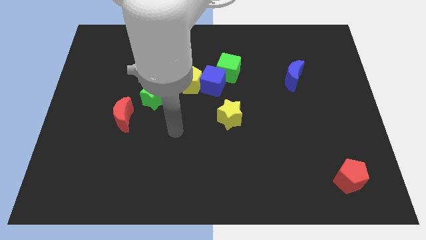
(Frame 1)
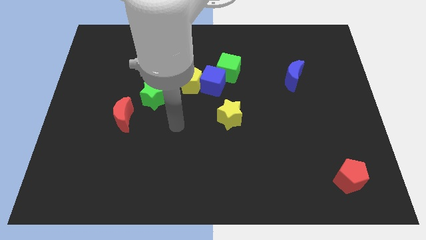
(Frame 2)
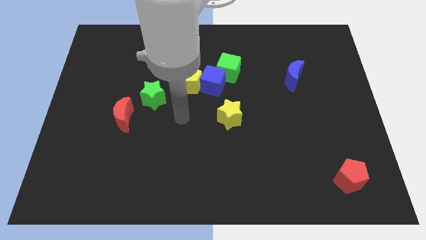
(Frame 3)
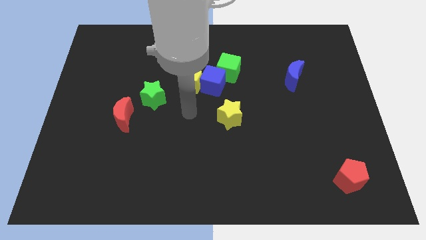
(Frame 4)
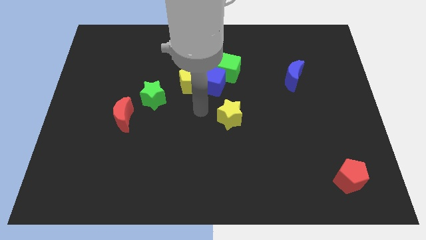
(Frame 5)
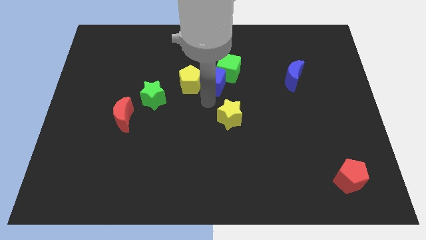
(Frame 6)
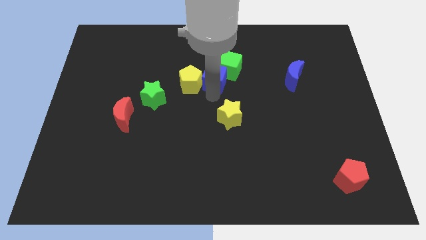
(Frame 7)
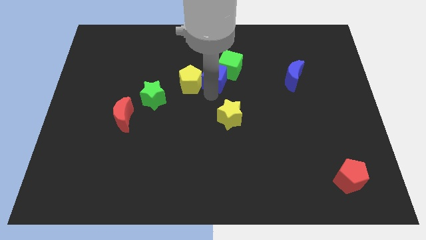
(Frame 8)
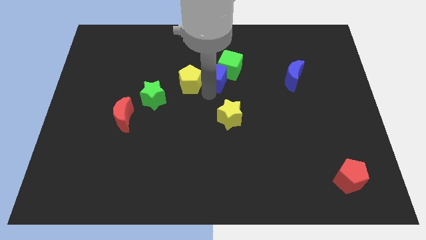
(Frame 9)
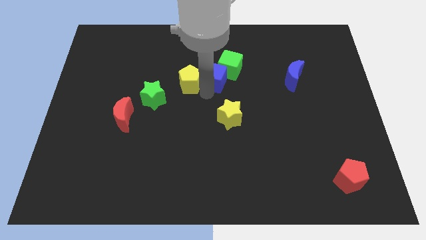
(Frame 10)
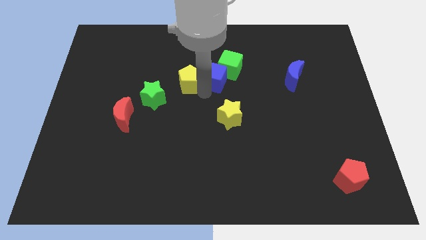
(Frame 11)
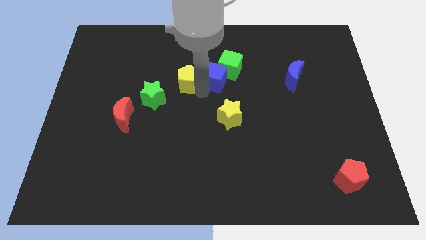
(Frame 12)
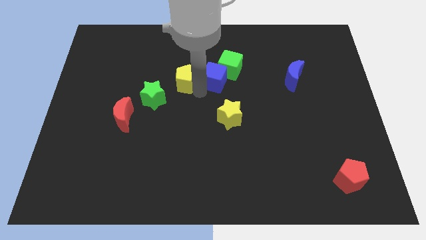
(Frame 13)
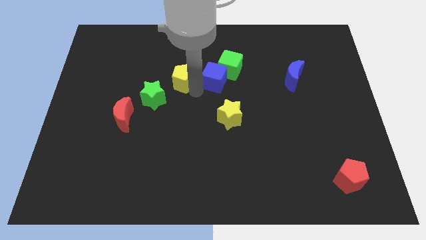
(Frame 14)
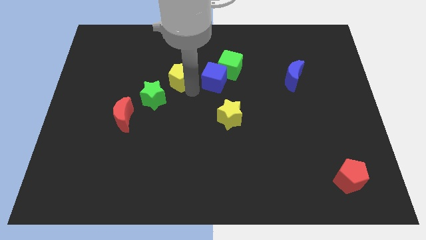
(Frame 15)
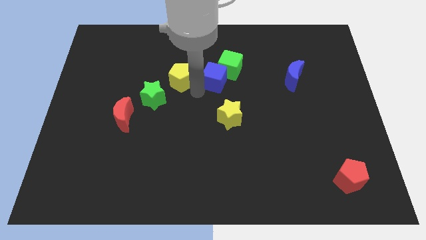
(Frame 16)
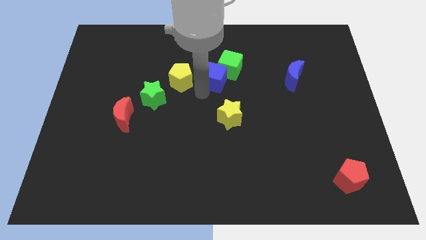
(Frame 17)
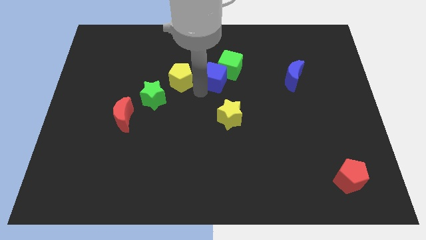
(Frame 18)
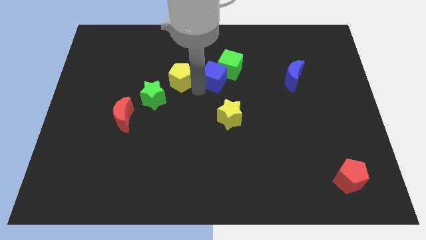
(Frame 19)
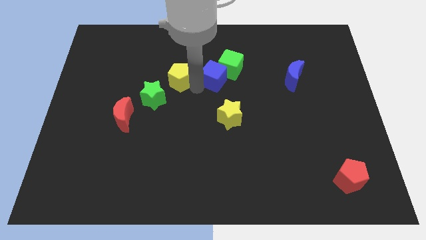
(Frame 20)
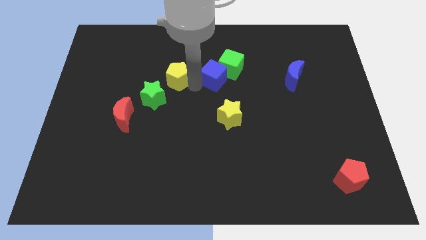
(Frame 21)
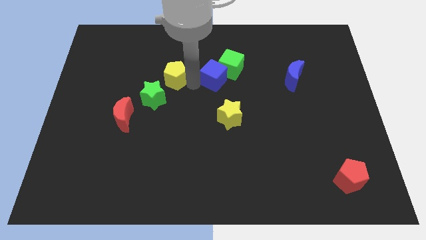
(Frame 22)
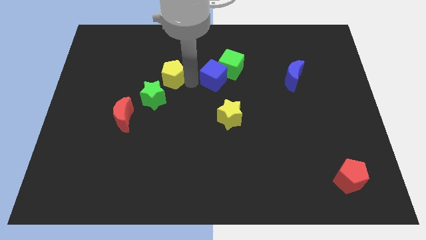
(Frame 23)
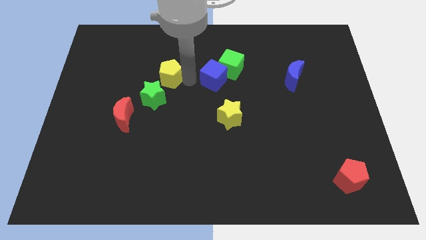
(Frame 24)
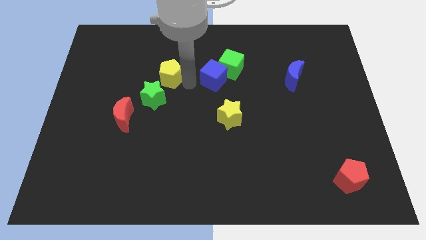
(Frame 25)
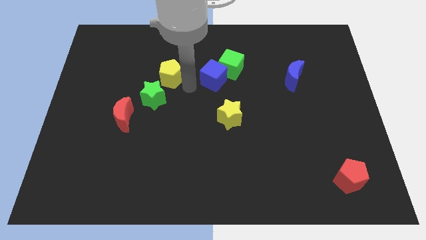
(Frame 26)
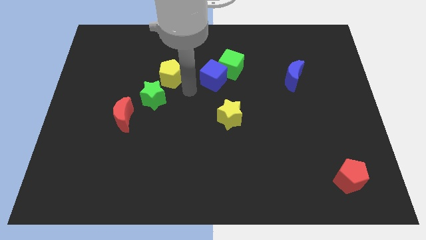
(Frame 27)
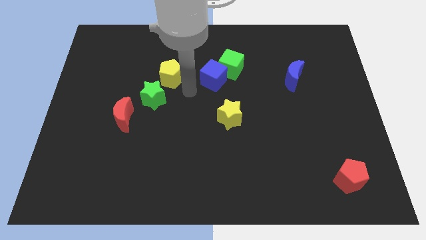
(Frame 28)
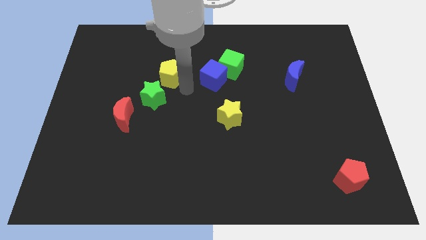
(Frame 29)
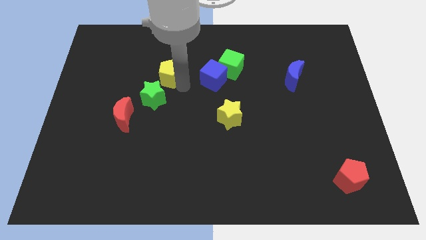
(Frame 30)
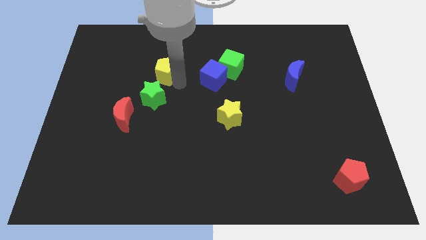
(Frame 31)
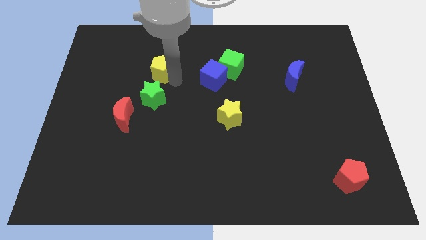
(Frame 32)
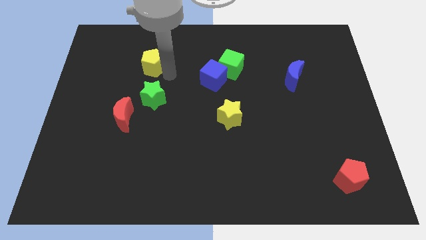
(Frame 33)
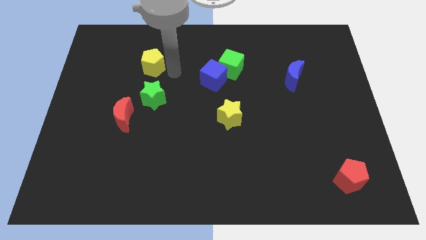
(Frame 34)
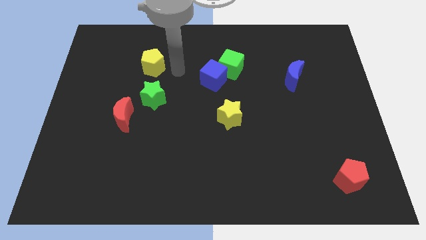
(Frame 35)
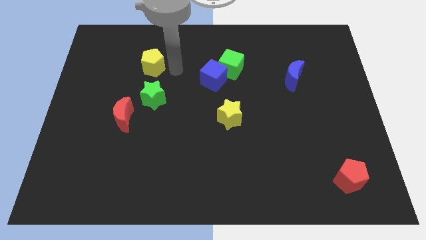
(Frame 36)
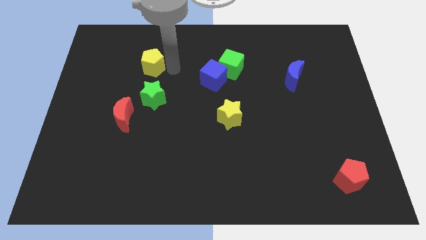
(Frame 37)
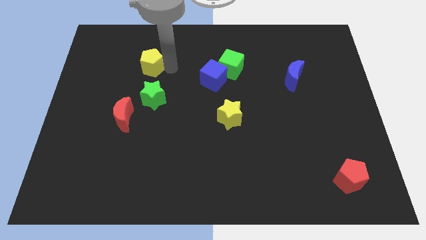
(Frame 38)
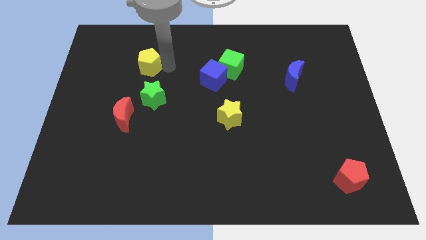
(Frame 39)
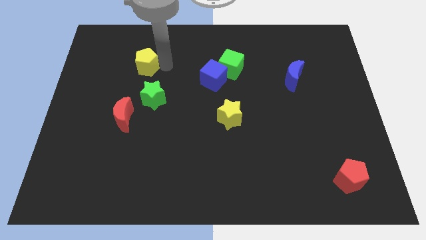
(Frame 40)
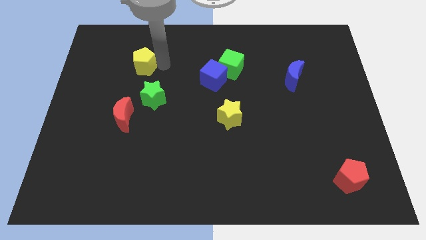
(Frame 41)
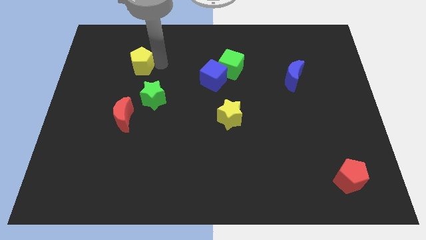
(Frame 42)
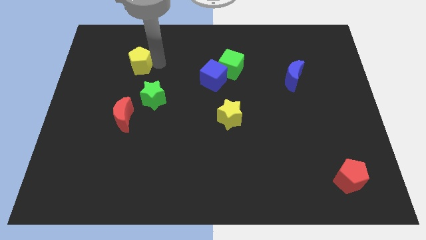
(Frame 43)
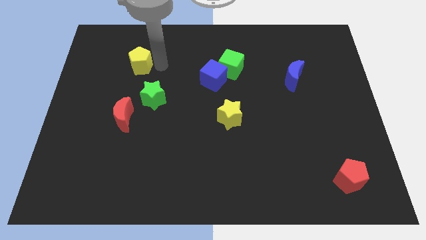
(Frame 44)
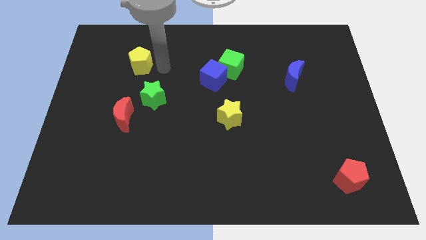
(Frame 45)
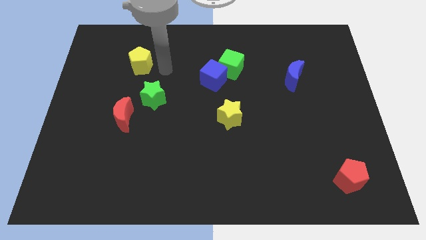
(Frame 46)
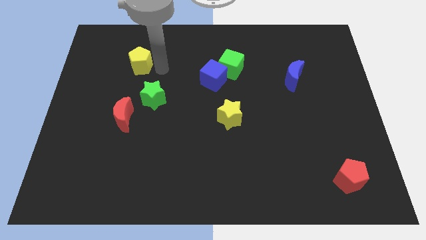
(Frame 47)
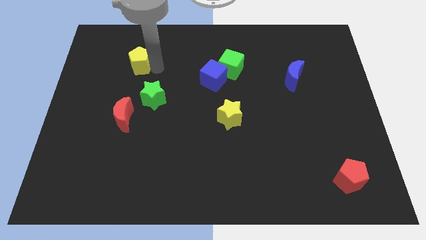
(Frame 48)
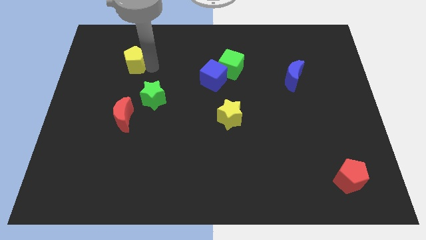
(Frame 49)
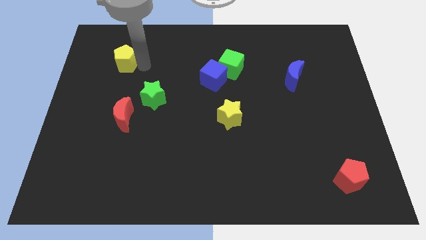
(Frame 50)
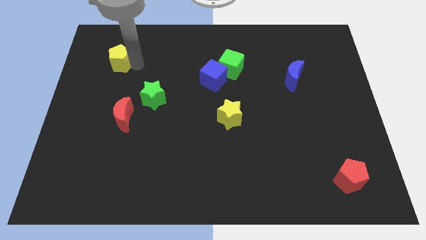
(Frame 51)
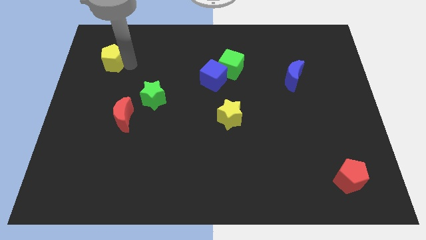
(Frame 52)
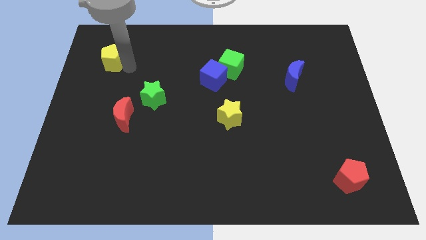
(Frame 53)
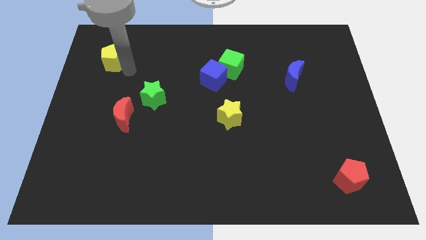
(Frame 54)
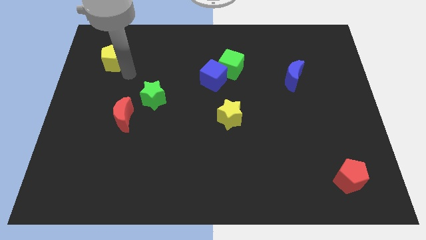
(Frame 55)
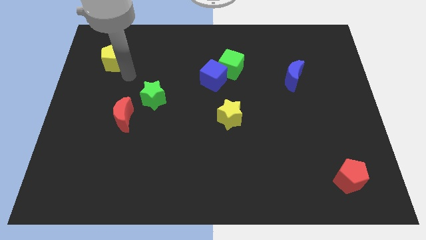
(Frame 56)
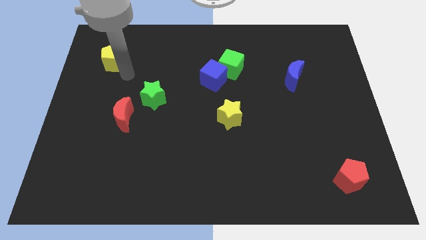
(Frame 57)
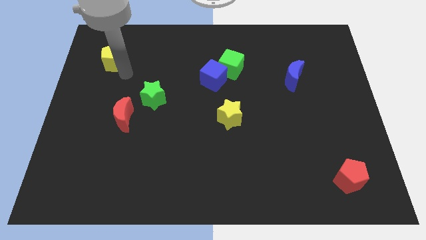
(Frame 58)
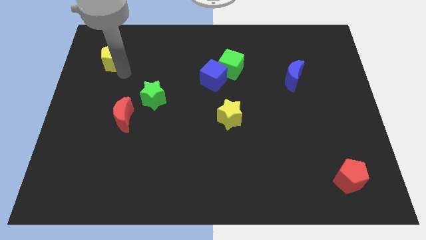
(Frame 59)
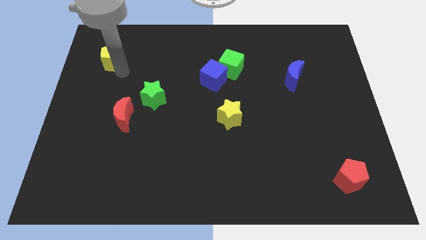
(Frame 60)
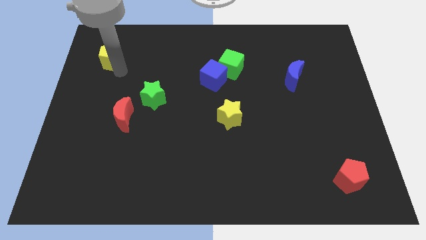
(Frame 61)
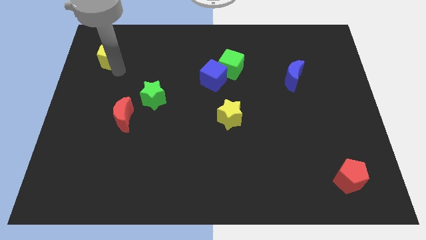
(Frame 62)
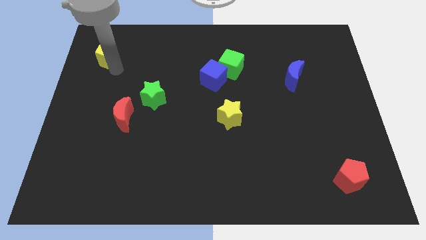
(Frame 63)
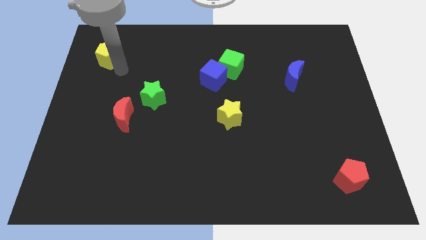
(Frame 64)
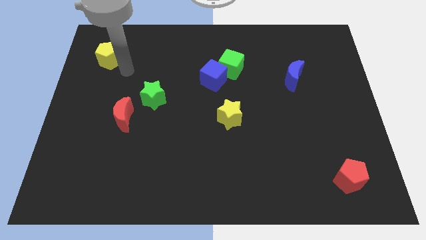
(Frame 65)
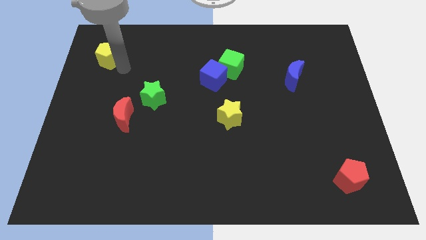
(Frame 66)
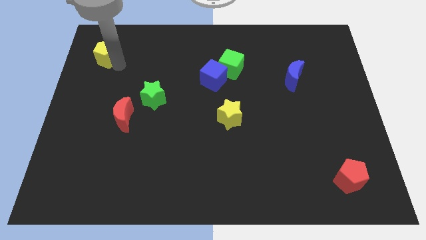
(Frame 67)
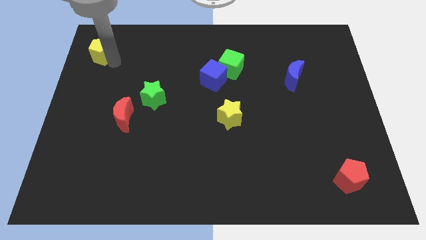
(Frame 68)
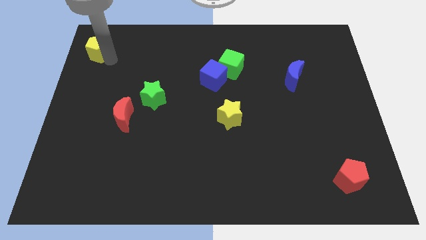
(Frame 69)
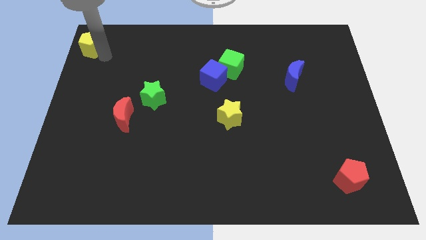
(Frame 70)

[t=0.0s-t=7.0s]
slide the yellow pentagon to the top left of the board
